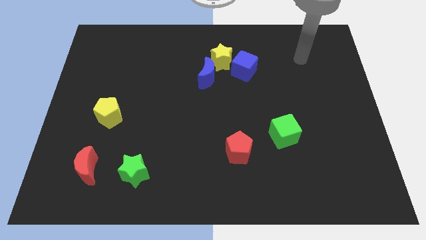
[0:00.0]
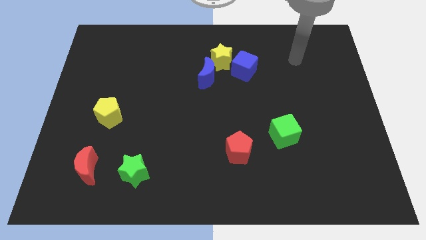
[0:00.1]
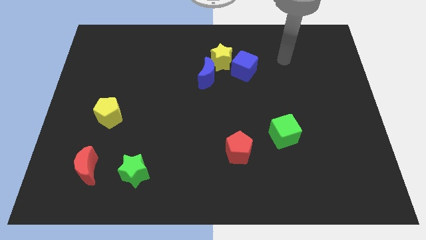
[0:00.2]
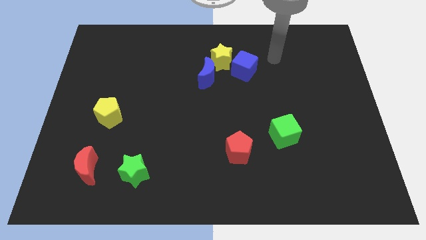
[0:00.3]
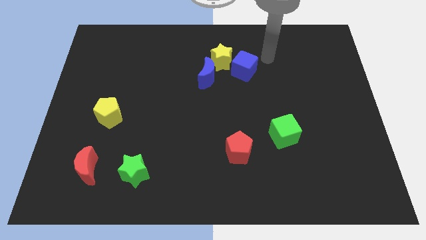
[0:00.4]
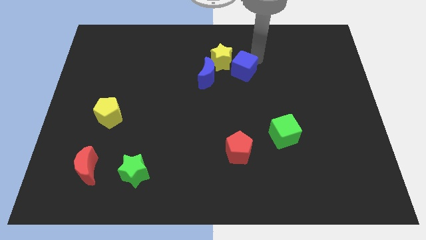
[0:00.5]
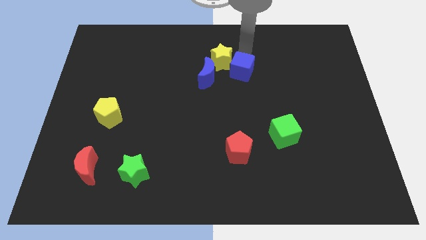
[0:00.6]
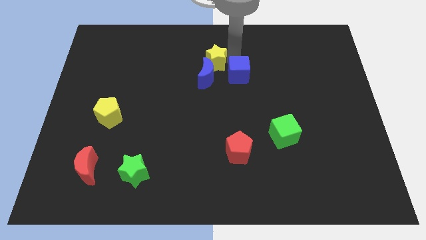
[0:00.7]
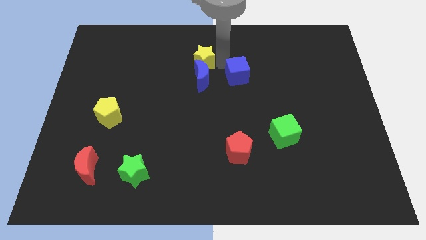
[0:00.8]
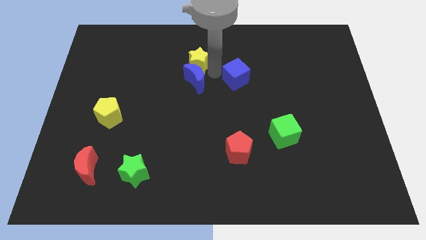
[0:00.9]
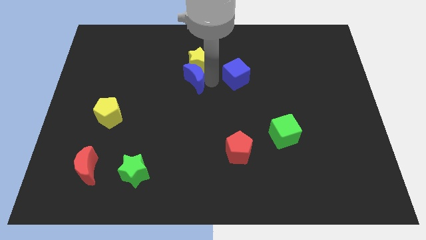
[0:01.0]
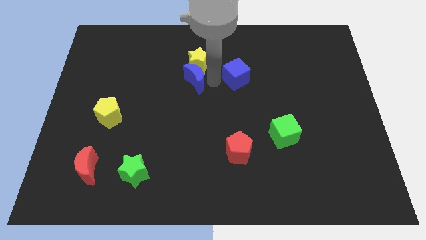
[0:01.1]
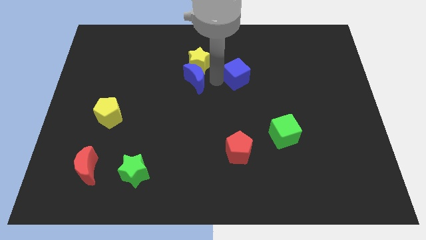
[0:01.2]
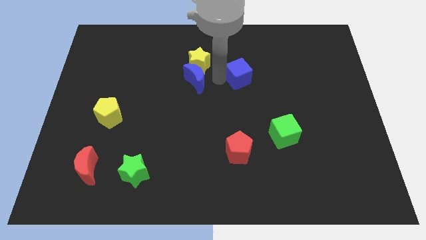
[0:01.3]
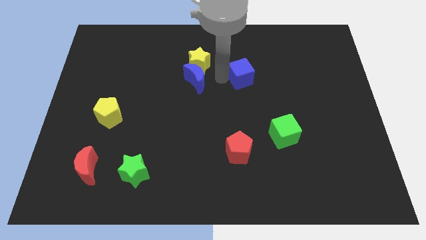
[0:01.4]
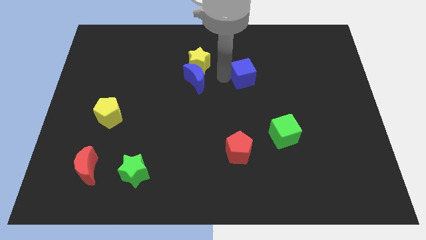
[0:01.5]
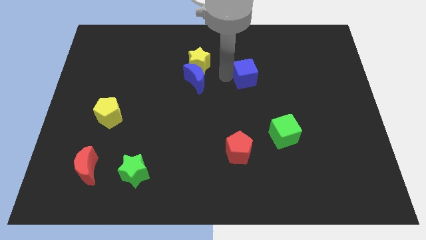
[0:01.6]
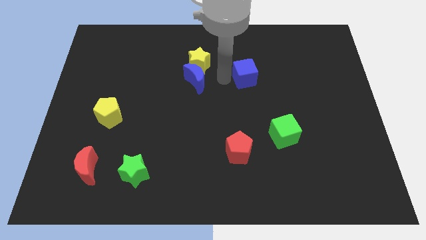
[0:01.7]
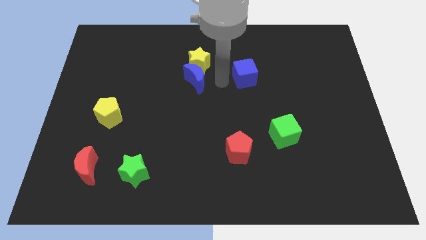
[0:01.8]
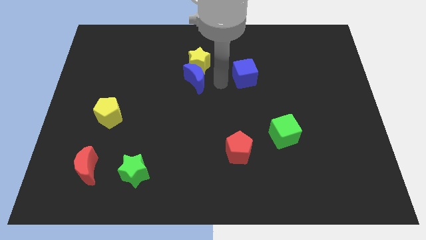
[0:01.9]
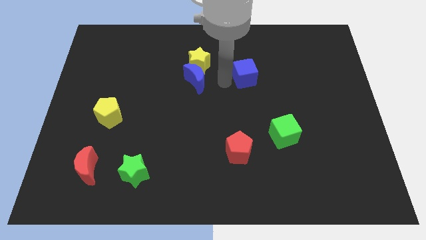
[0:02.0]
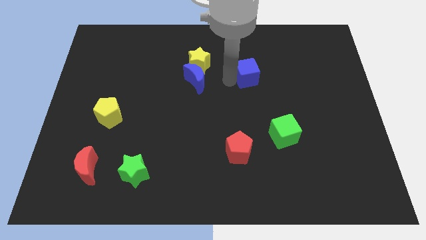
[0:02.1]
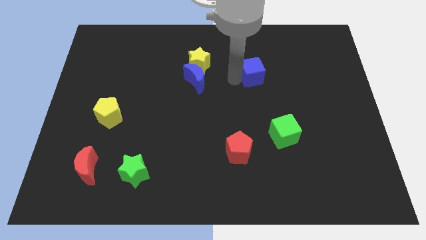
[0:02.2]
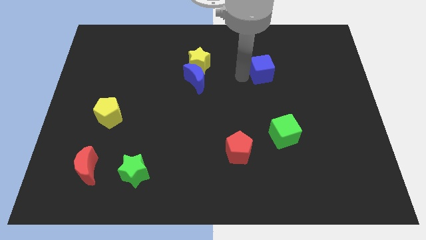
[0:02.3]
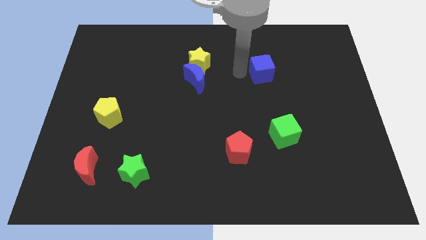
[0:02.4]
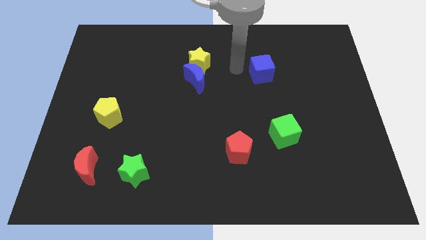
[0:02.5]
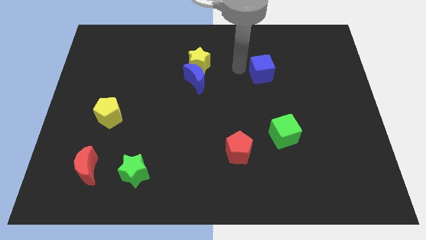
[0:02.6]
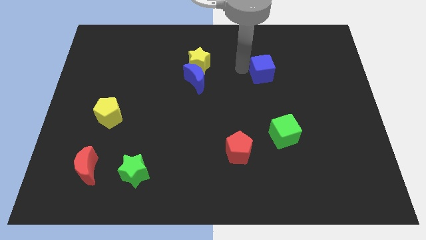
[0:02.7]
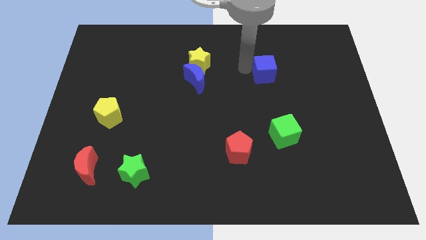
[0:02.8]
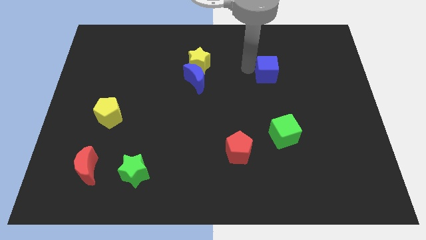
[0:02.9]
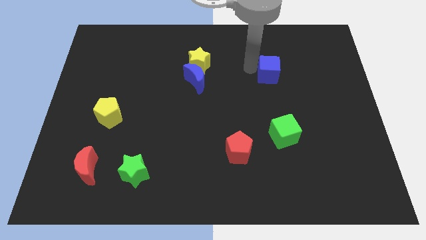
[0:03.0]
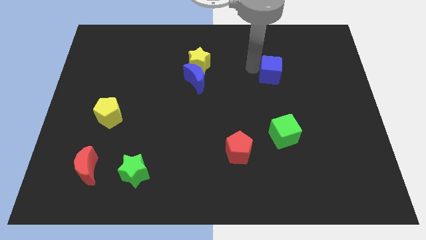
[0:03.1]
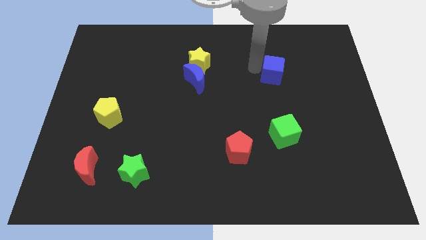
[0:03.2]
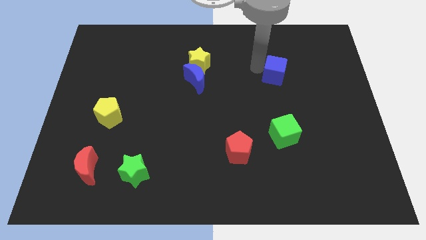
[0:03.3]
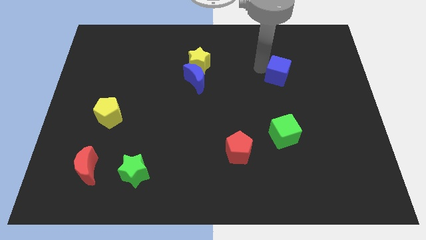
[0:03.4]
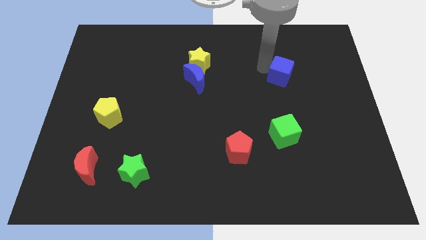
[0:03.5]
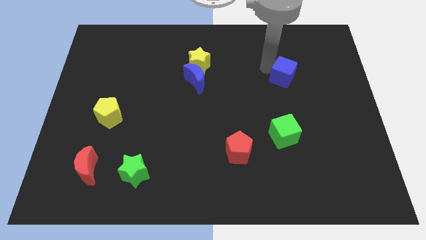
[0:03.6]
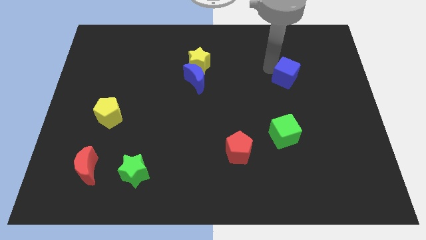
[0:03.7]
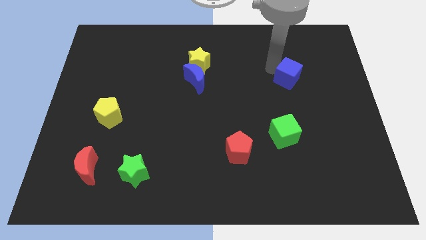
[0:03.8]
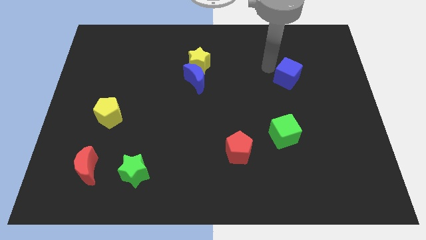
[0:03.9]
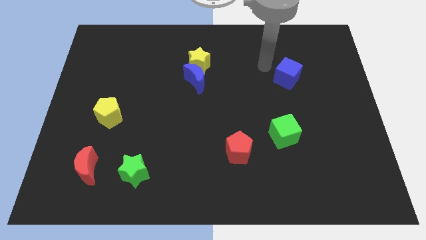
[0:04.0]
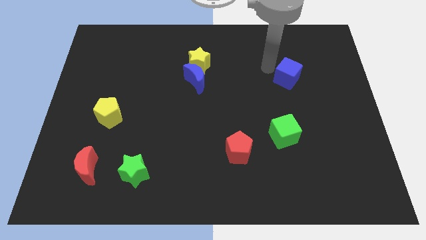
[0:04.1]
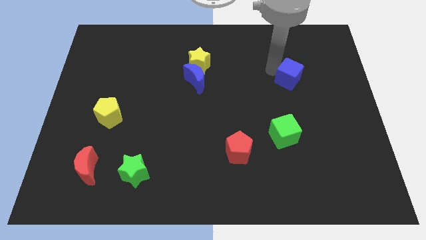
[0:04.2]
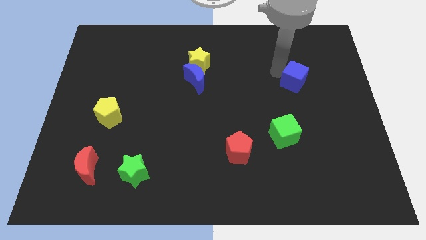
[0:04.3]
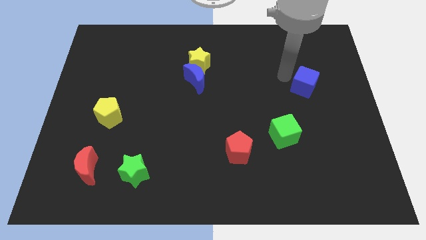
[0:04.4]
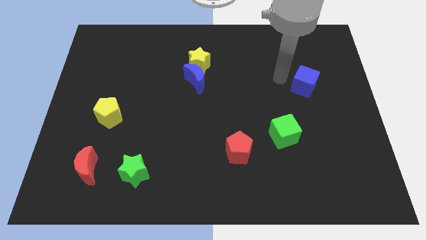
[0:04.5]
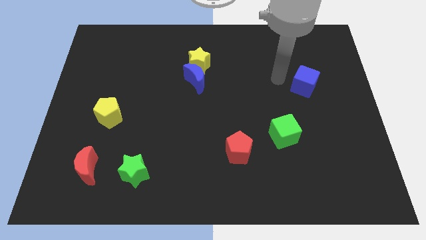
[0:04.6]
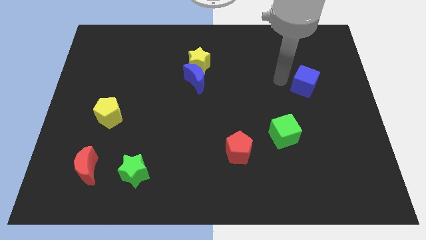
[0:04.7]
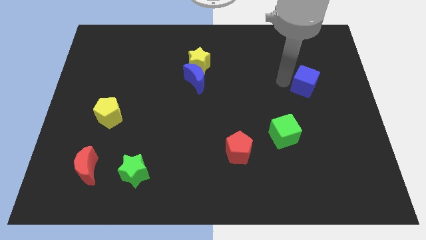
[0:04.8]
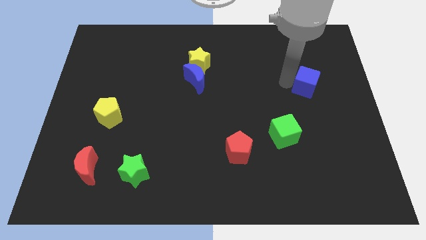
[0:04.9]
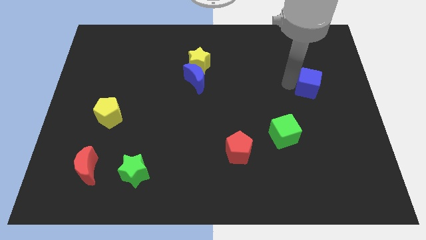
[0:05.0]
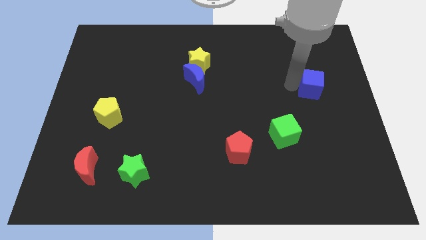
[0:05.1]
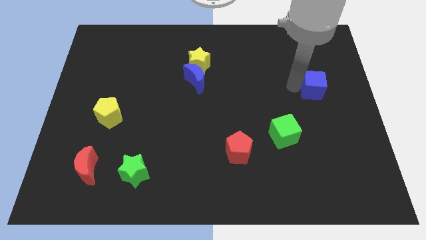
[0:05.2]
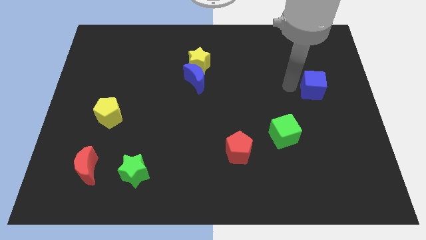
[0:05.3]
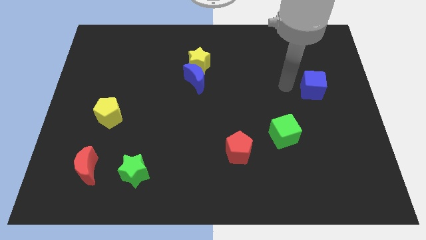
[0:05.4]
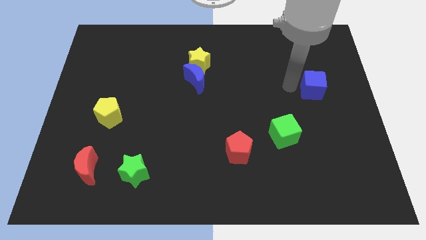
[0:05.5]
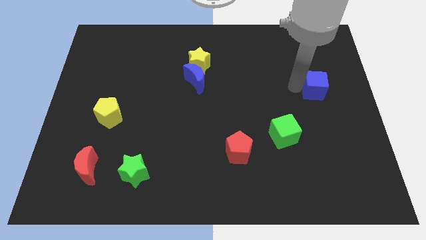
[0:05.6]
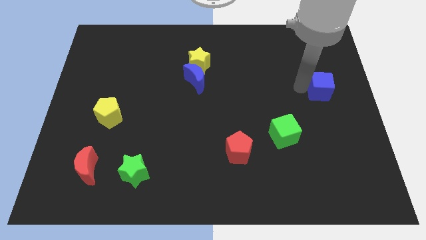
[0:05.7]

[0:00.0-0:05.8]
move the blue cube to the right side
